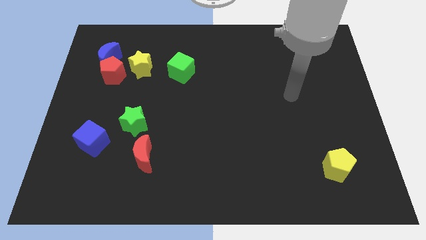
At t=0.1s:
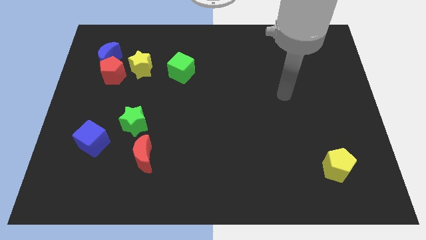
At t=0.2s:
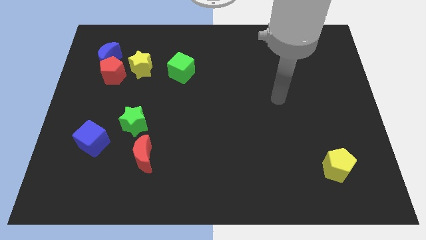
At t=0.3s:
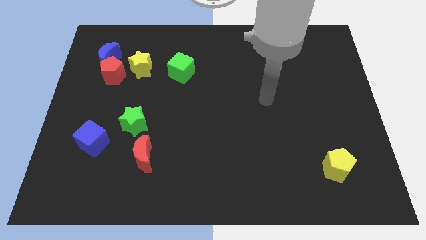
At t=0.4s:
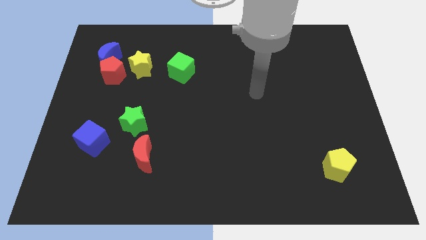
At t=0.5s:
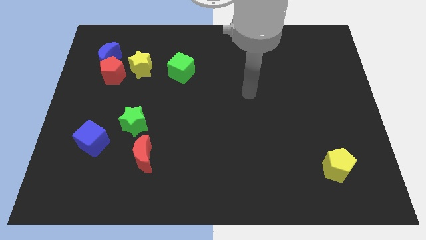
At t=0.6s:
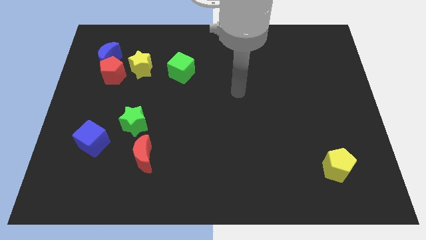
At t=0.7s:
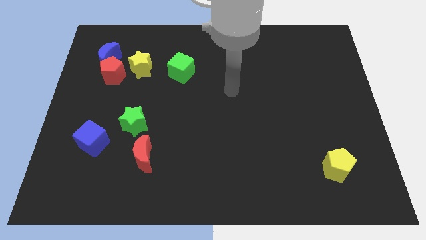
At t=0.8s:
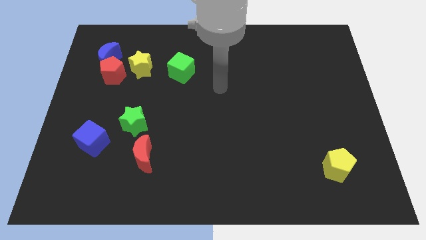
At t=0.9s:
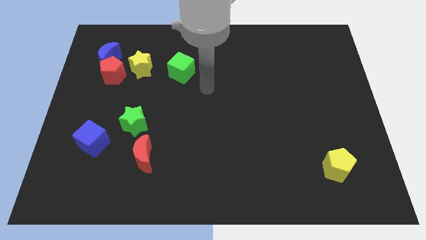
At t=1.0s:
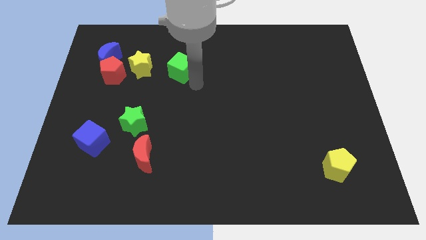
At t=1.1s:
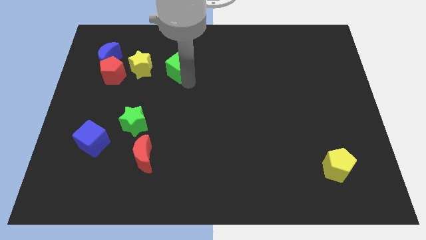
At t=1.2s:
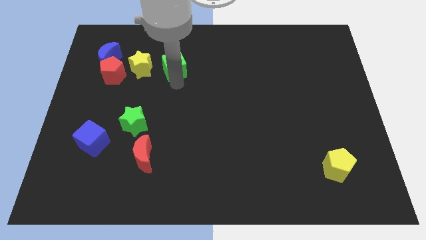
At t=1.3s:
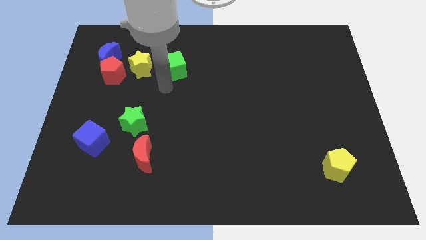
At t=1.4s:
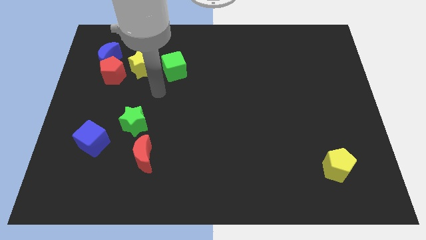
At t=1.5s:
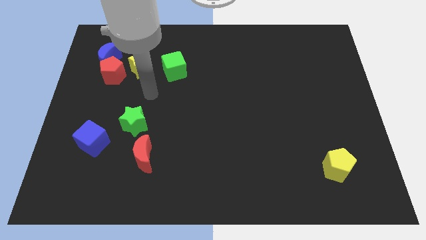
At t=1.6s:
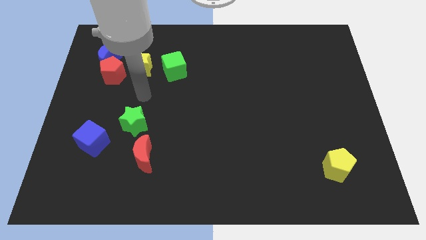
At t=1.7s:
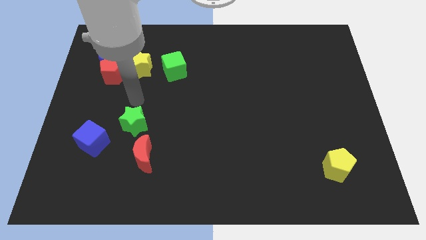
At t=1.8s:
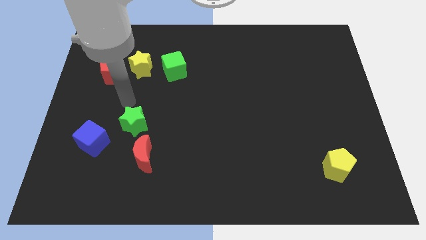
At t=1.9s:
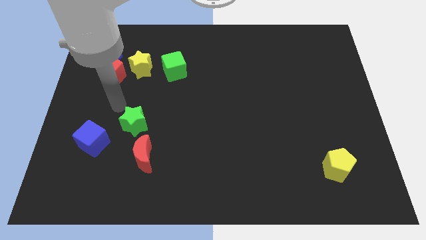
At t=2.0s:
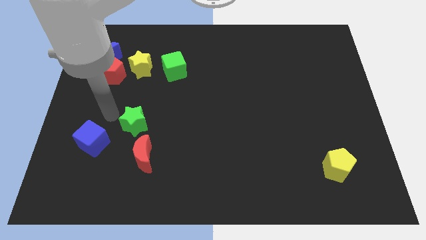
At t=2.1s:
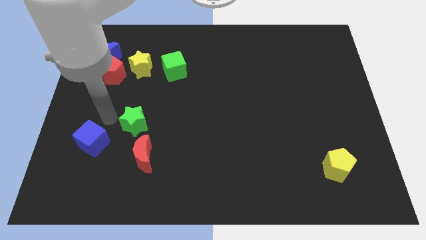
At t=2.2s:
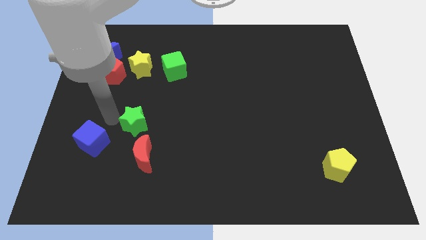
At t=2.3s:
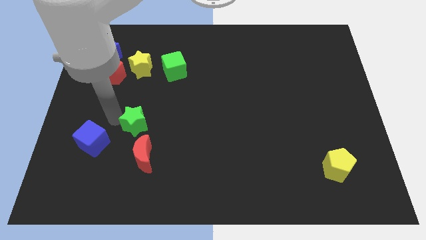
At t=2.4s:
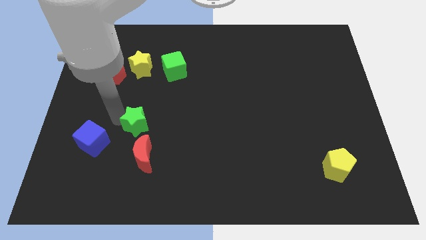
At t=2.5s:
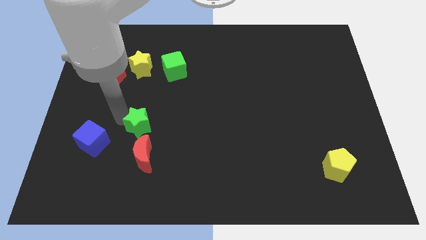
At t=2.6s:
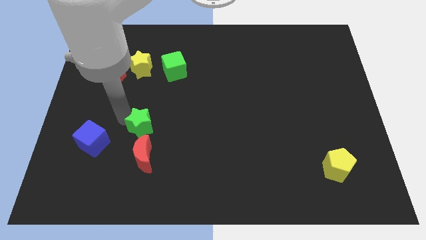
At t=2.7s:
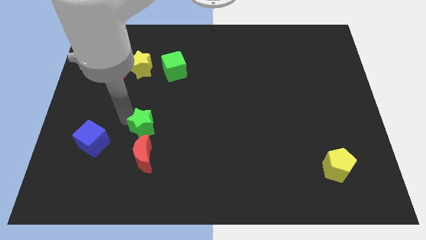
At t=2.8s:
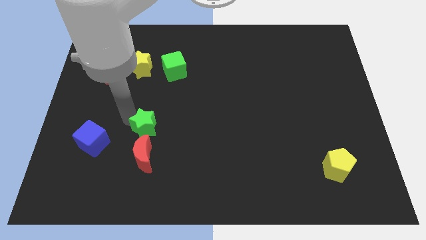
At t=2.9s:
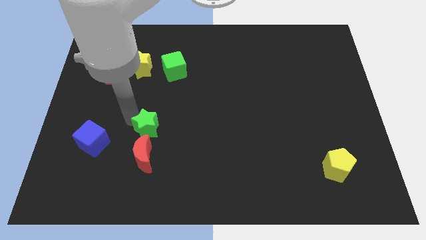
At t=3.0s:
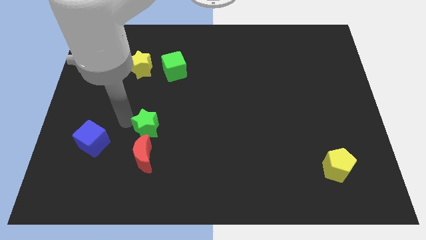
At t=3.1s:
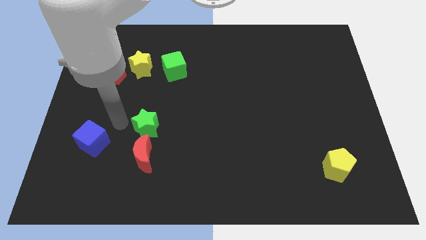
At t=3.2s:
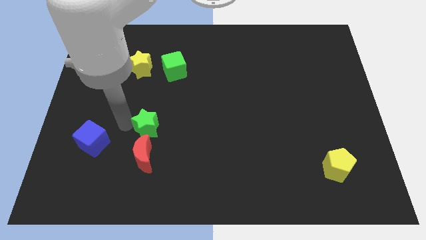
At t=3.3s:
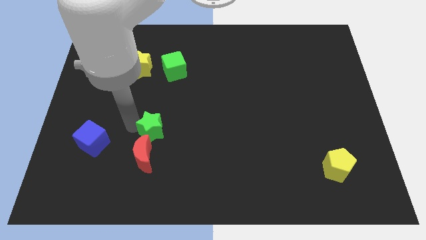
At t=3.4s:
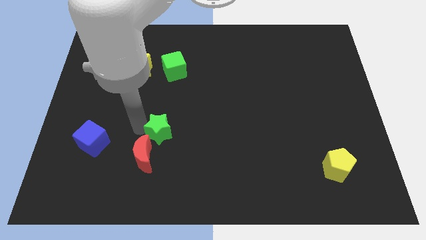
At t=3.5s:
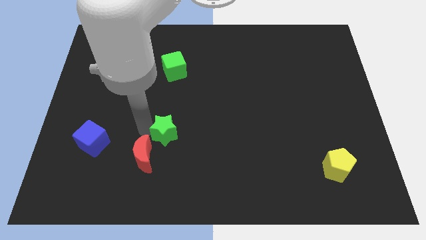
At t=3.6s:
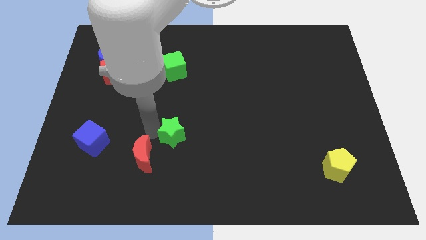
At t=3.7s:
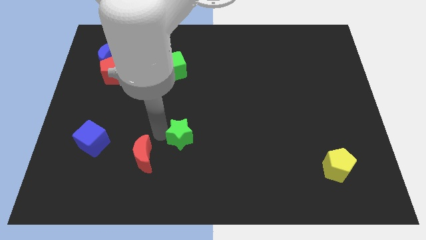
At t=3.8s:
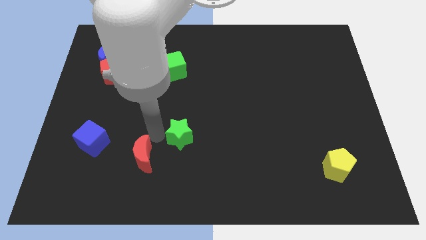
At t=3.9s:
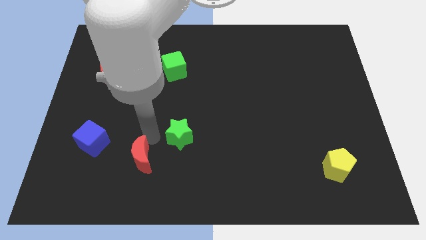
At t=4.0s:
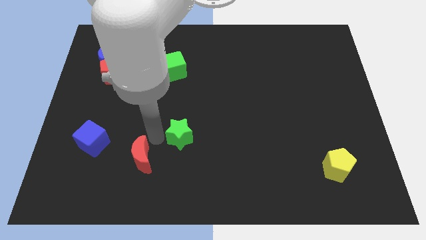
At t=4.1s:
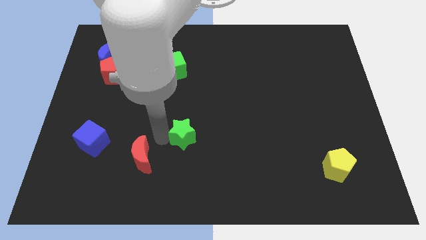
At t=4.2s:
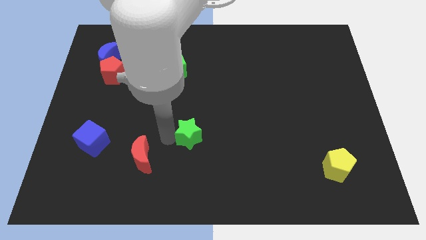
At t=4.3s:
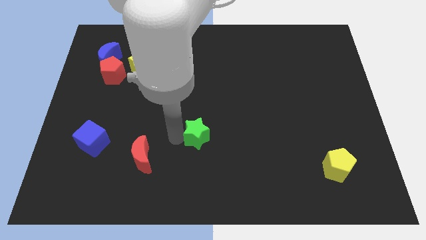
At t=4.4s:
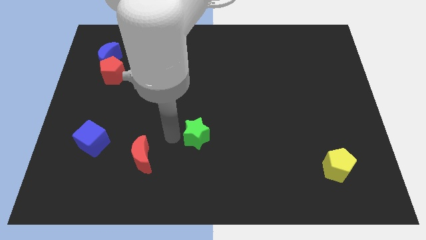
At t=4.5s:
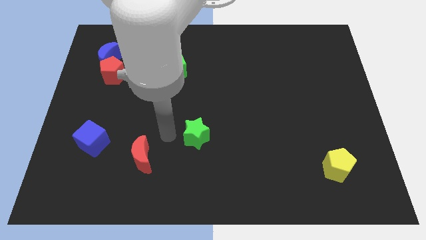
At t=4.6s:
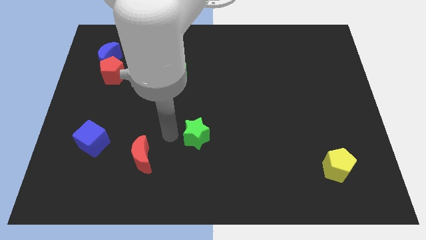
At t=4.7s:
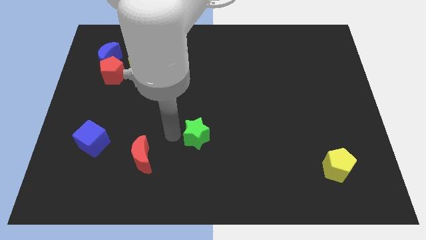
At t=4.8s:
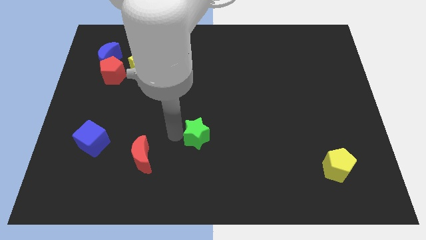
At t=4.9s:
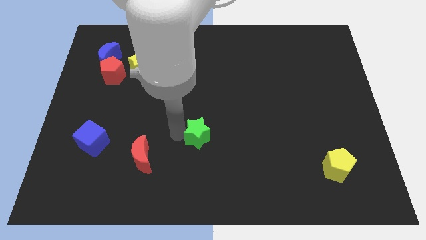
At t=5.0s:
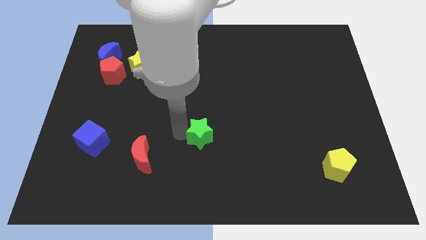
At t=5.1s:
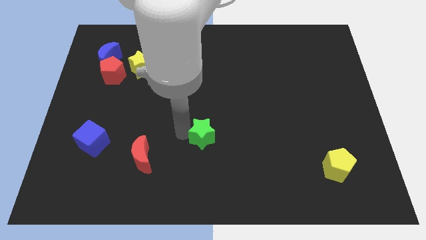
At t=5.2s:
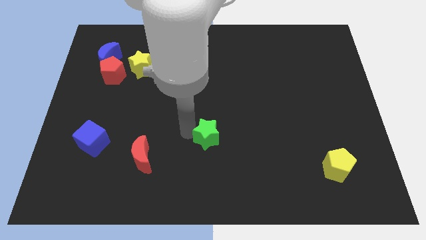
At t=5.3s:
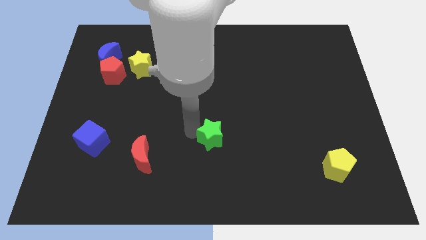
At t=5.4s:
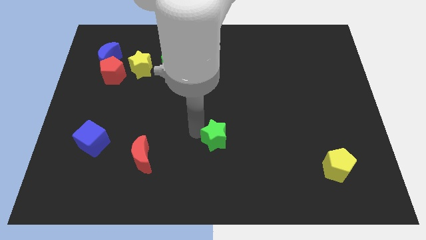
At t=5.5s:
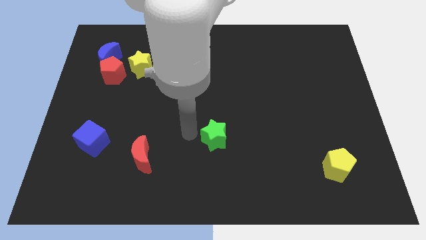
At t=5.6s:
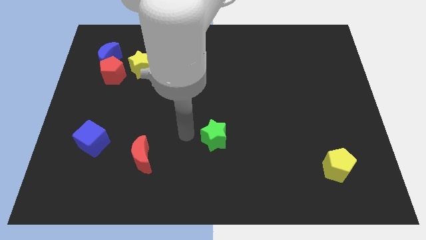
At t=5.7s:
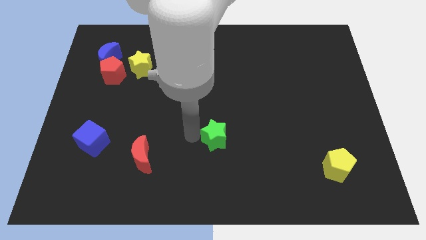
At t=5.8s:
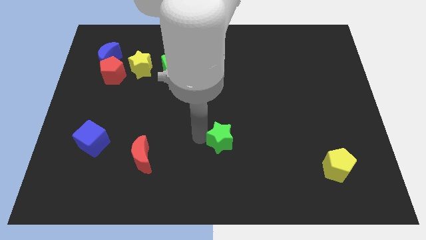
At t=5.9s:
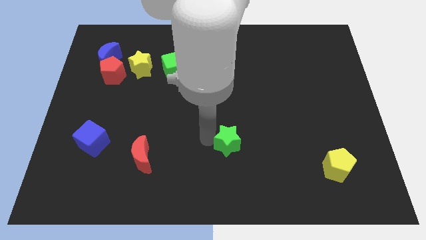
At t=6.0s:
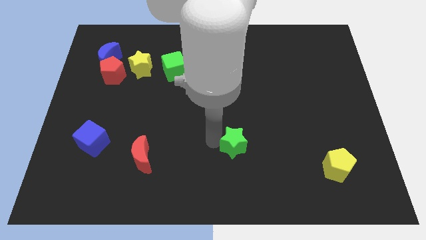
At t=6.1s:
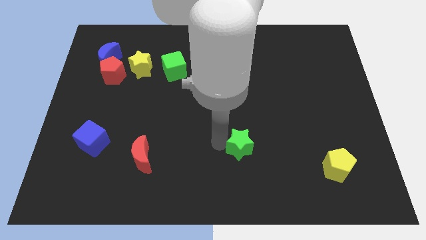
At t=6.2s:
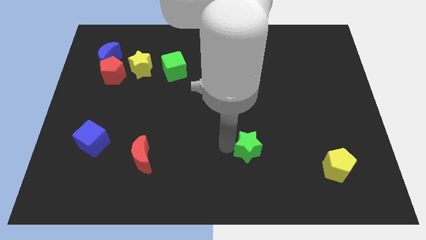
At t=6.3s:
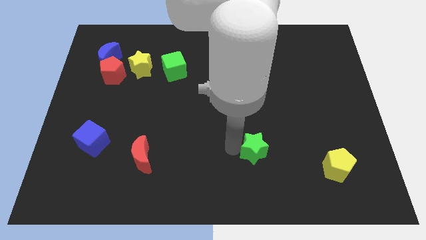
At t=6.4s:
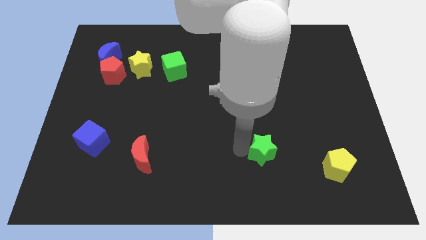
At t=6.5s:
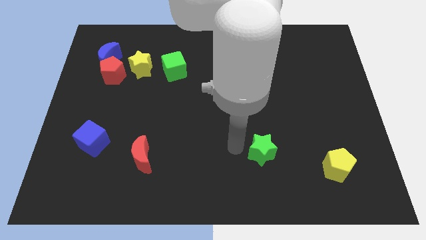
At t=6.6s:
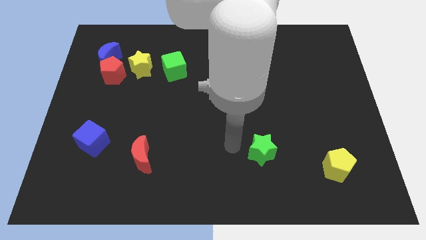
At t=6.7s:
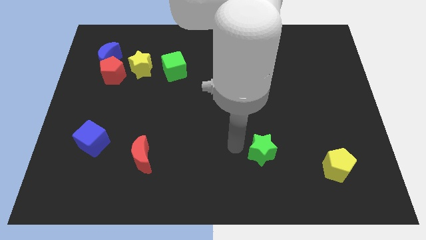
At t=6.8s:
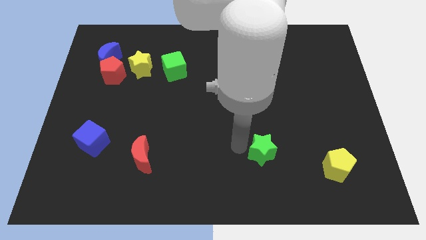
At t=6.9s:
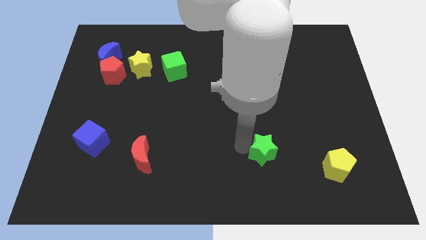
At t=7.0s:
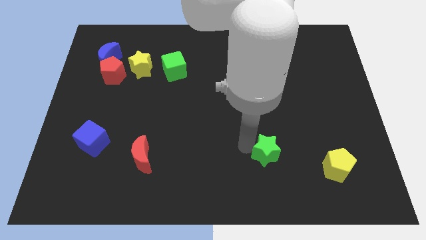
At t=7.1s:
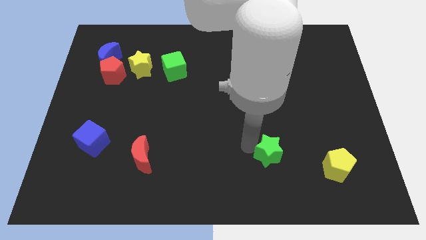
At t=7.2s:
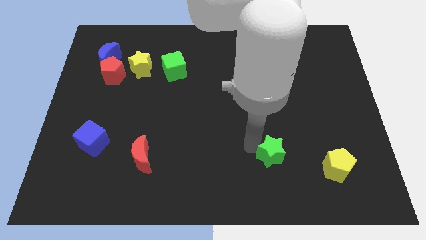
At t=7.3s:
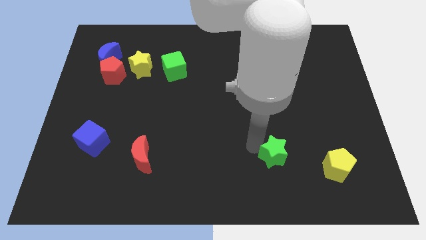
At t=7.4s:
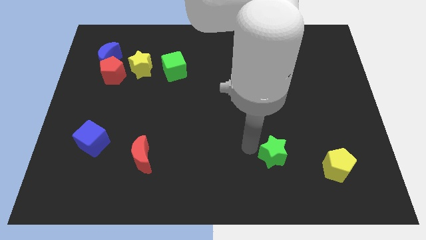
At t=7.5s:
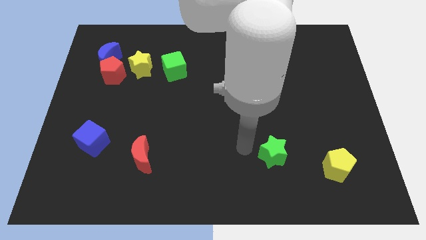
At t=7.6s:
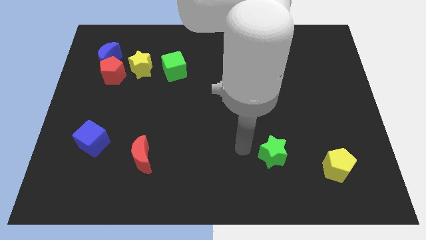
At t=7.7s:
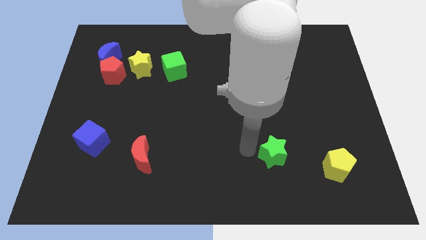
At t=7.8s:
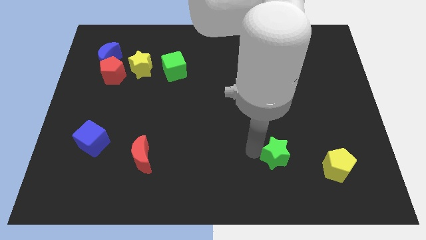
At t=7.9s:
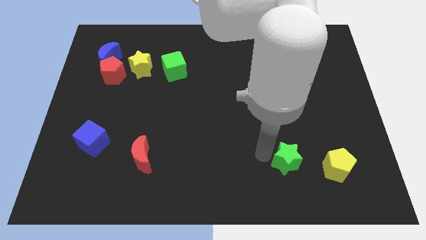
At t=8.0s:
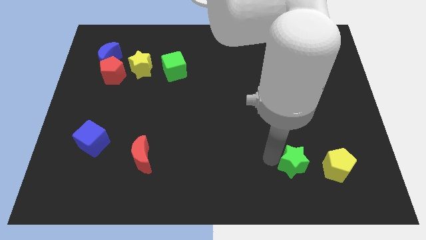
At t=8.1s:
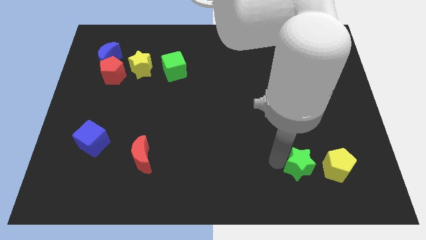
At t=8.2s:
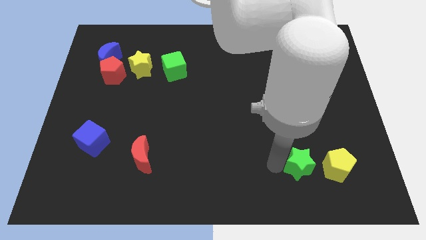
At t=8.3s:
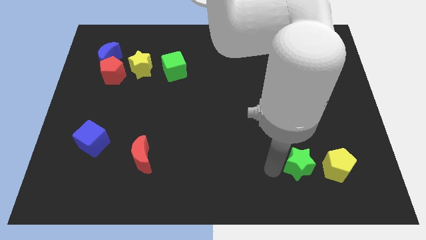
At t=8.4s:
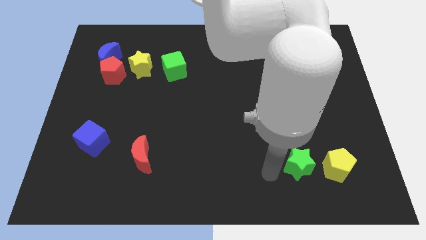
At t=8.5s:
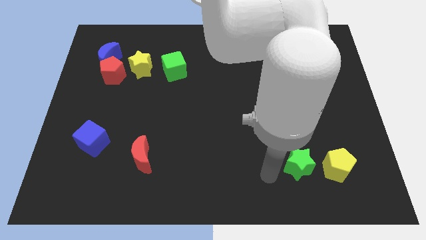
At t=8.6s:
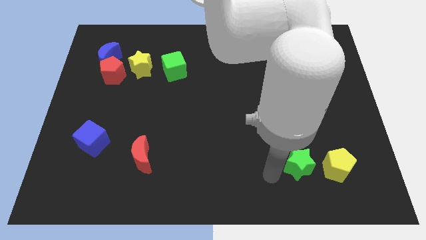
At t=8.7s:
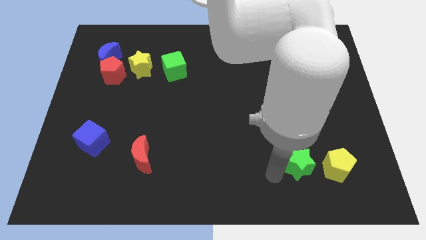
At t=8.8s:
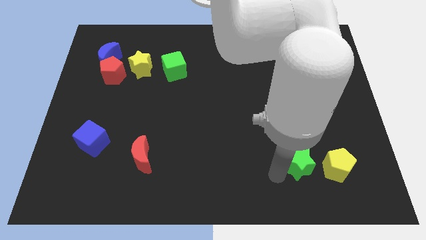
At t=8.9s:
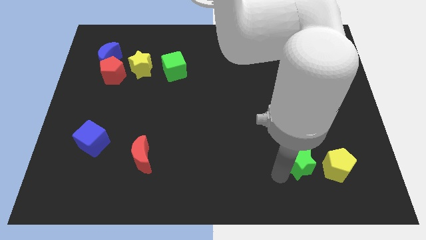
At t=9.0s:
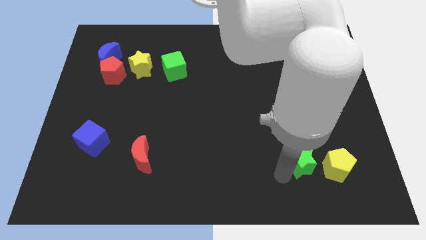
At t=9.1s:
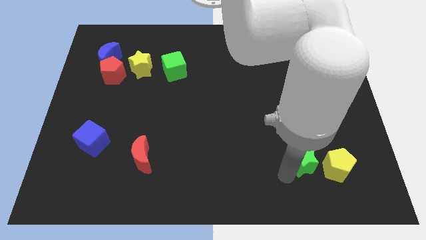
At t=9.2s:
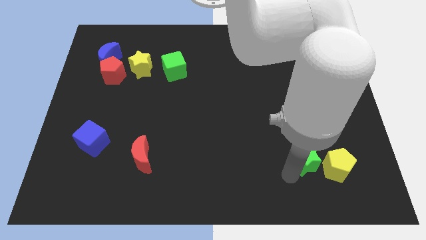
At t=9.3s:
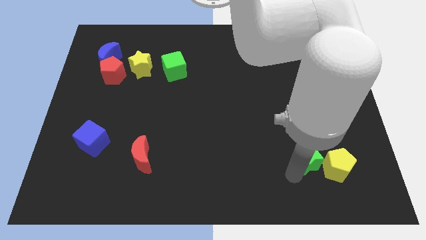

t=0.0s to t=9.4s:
put the green star towards the yellow pentagon
